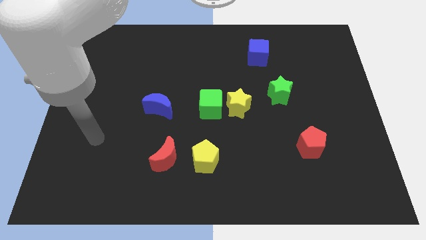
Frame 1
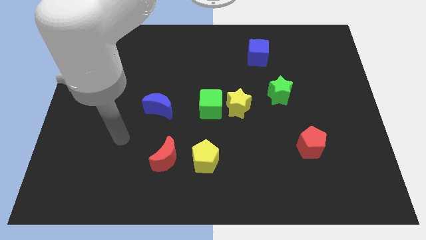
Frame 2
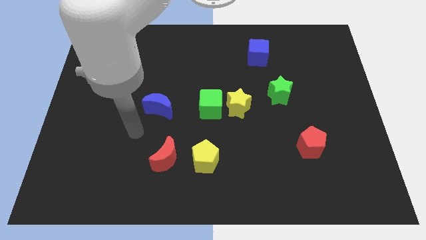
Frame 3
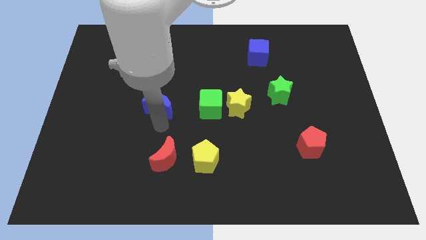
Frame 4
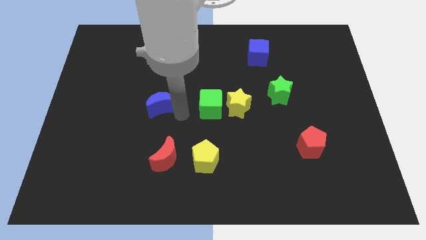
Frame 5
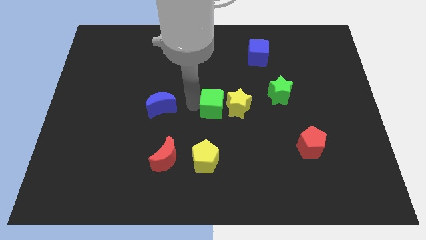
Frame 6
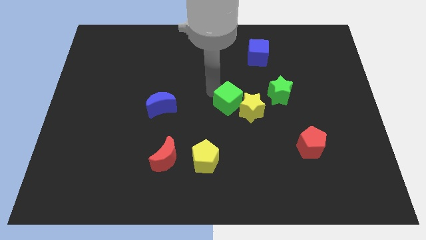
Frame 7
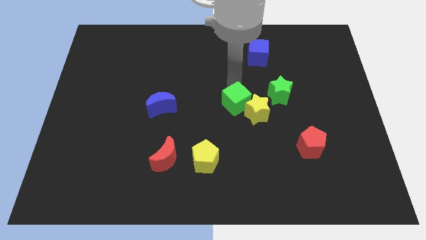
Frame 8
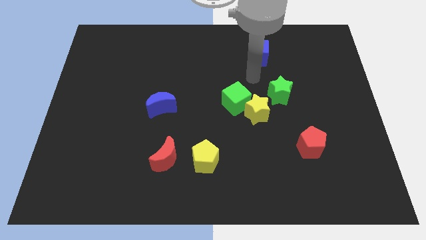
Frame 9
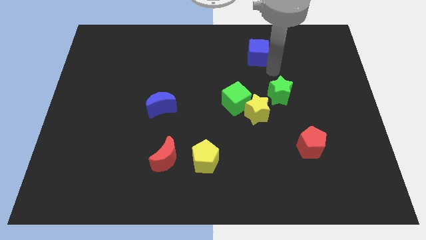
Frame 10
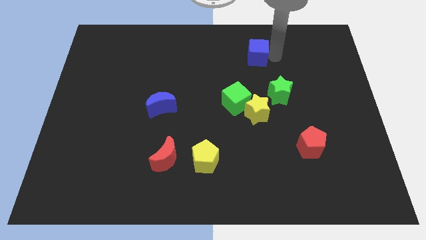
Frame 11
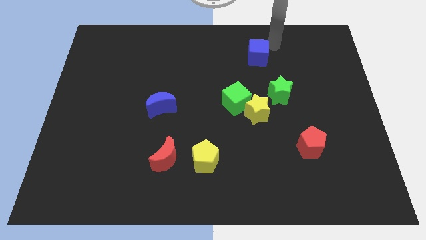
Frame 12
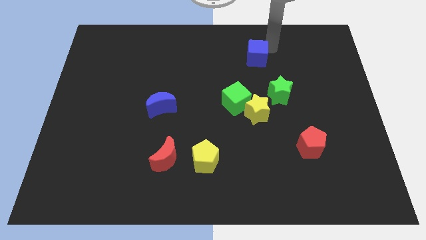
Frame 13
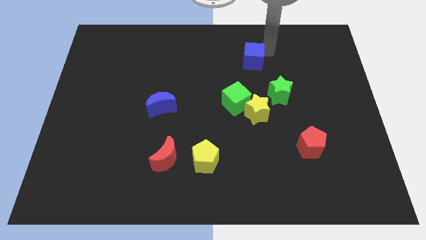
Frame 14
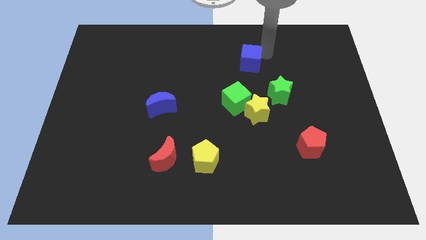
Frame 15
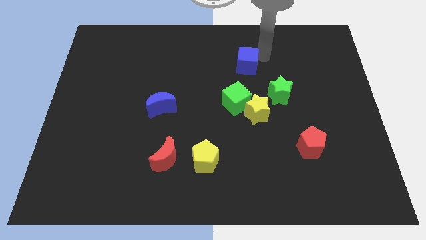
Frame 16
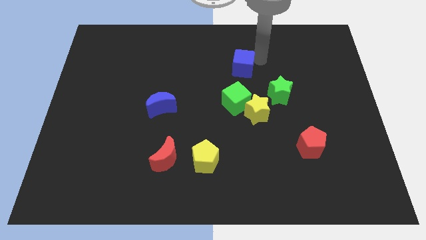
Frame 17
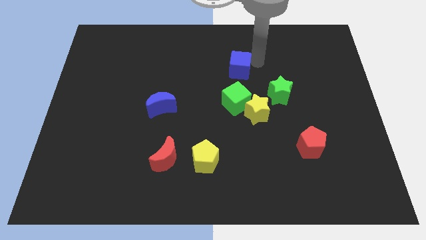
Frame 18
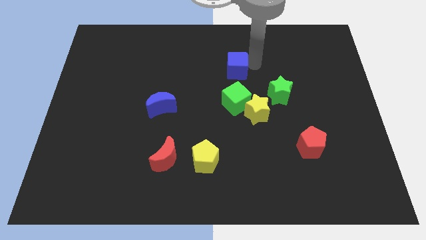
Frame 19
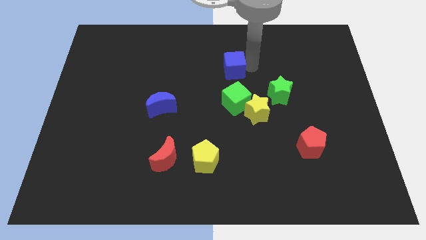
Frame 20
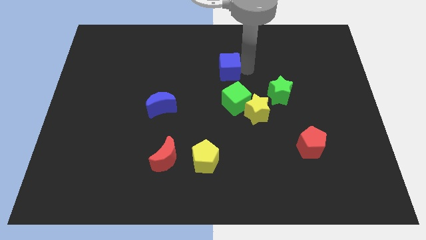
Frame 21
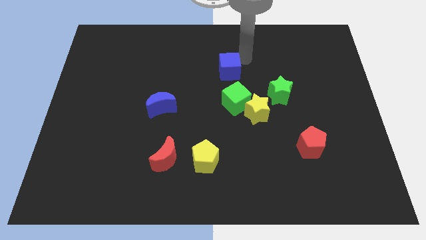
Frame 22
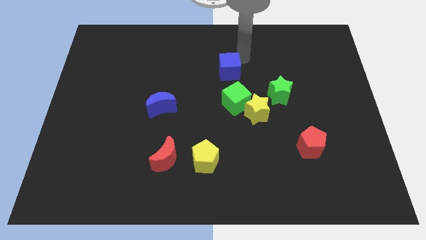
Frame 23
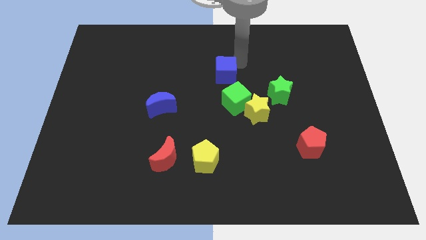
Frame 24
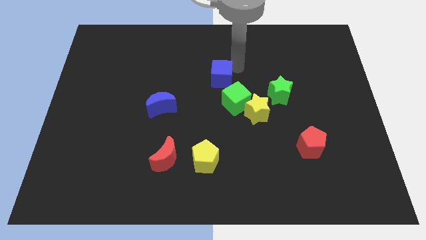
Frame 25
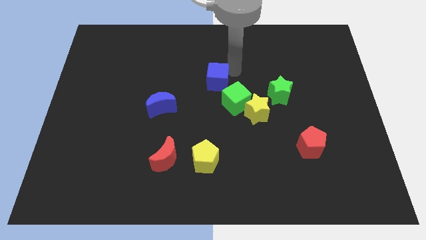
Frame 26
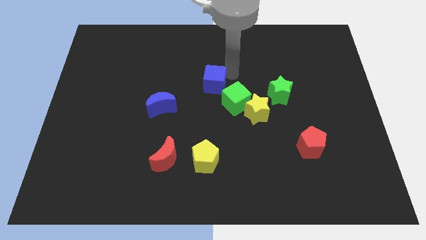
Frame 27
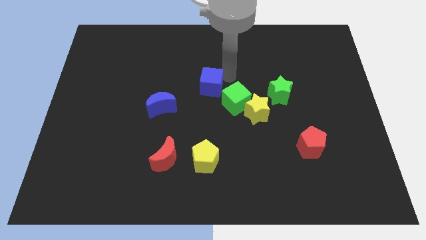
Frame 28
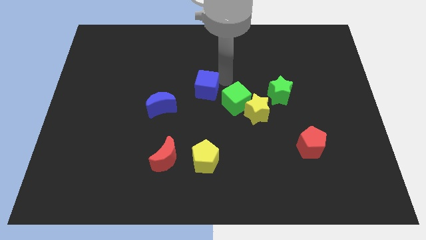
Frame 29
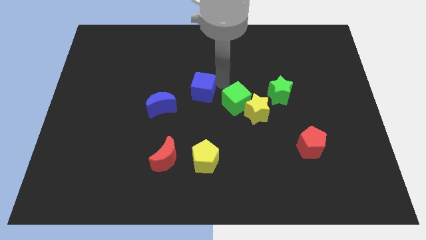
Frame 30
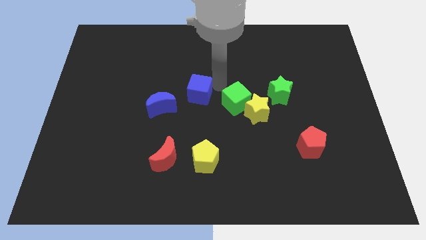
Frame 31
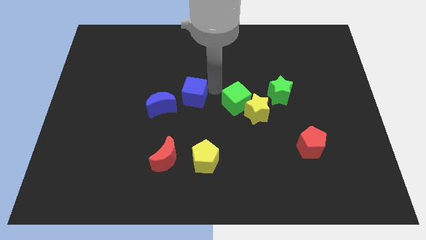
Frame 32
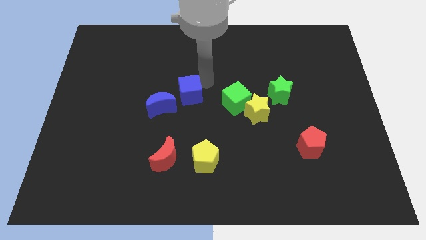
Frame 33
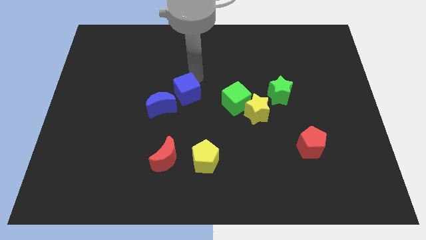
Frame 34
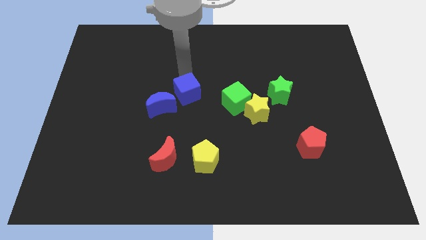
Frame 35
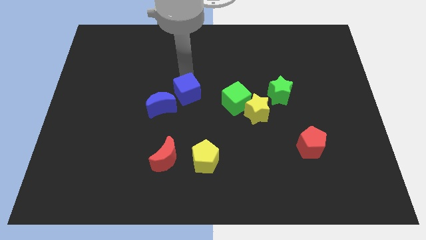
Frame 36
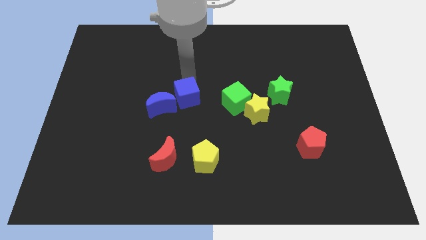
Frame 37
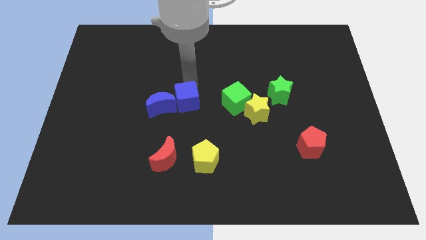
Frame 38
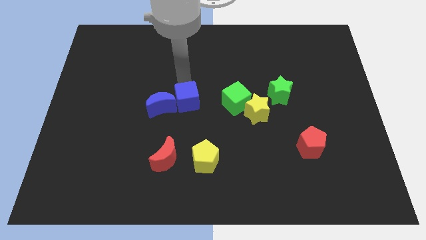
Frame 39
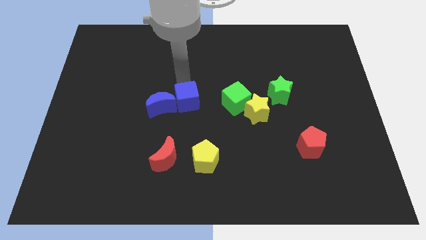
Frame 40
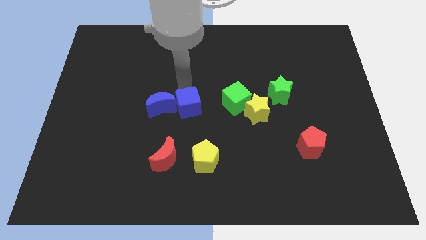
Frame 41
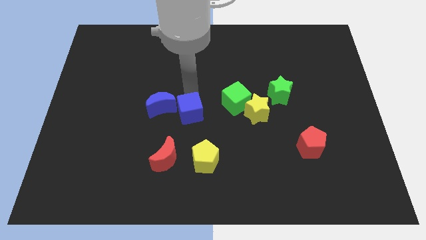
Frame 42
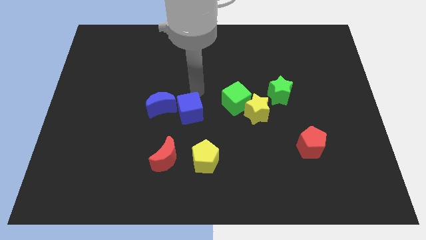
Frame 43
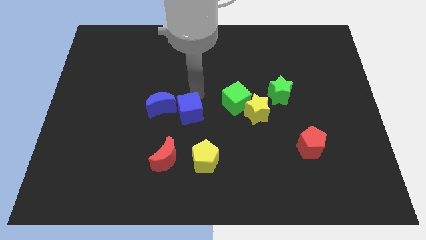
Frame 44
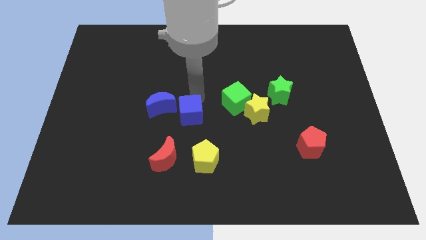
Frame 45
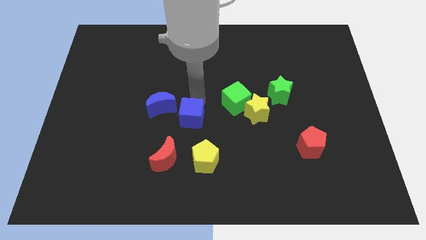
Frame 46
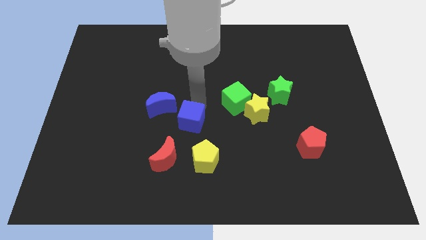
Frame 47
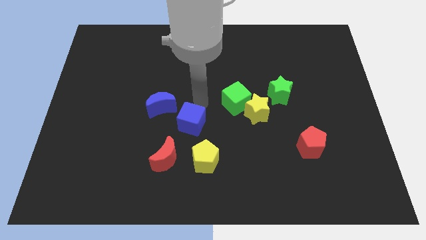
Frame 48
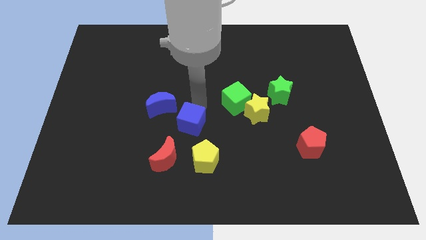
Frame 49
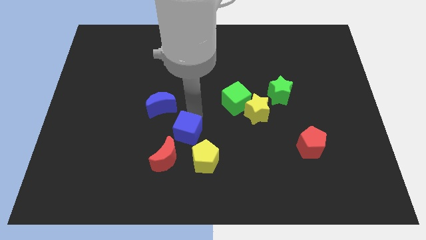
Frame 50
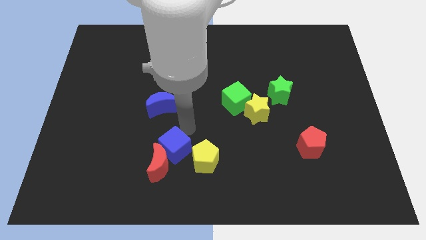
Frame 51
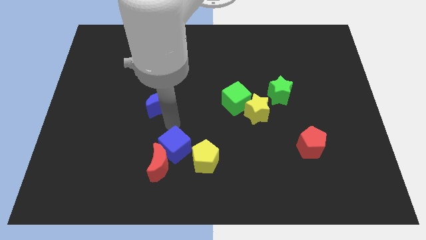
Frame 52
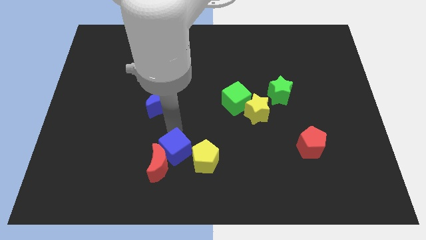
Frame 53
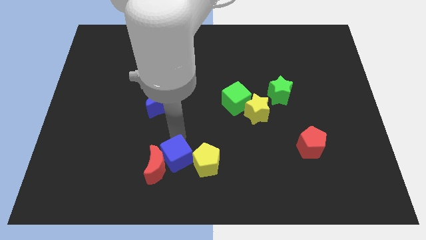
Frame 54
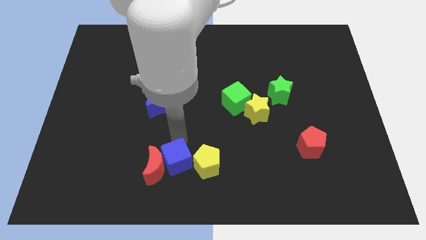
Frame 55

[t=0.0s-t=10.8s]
move the blue cube to the bottom right side of the red moon

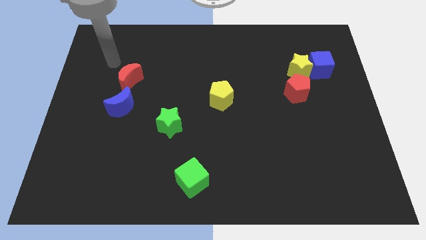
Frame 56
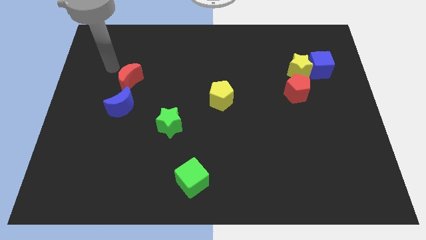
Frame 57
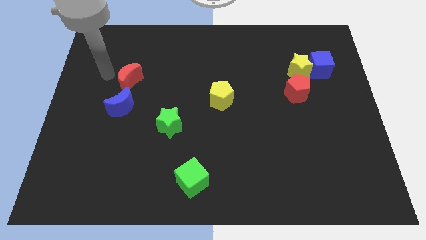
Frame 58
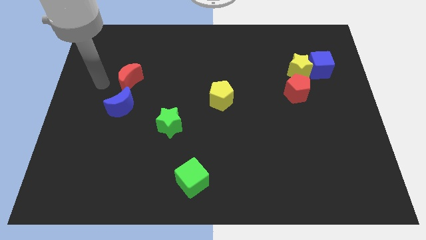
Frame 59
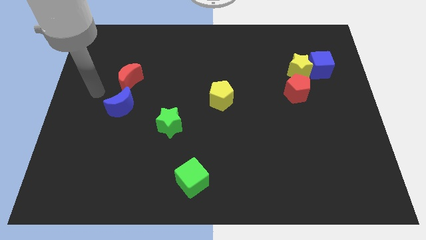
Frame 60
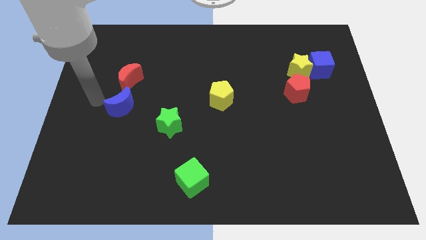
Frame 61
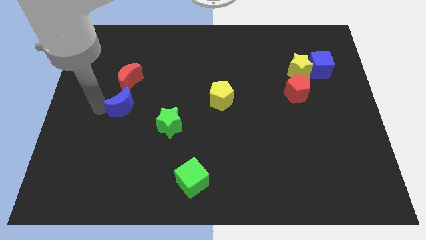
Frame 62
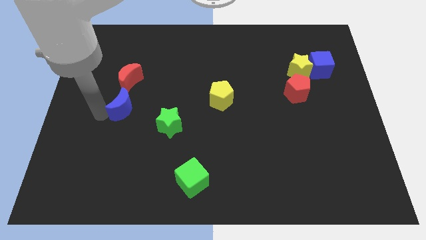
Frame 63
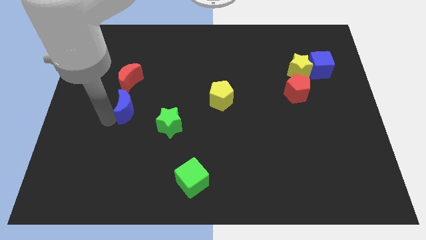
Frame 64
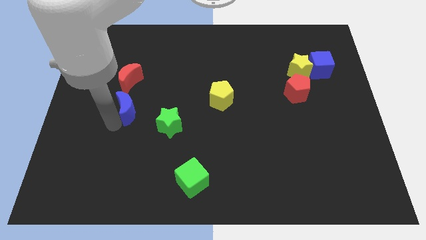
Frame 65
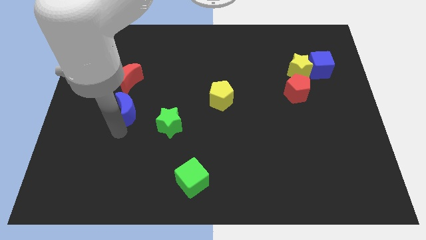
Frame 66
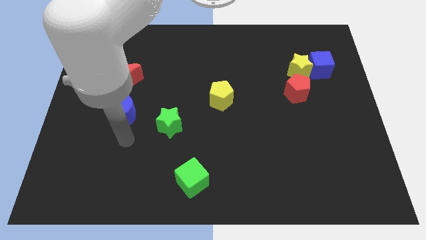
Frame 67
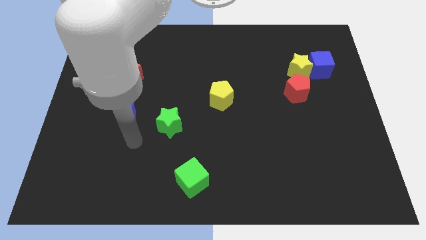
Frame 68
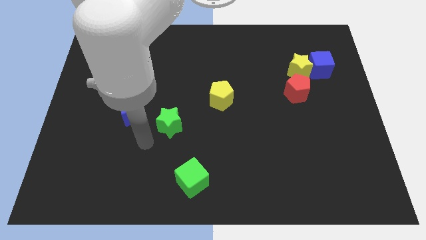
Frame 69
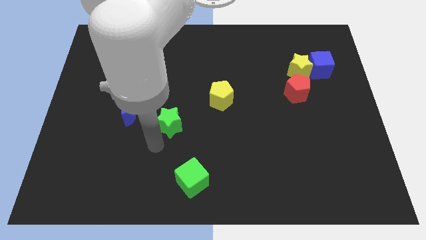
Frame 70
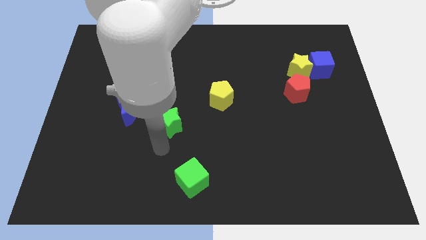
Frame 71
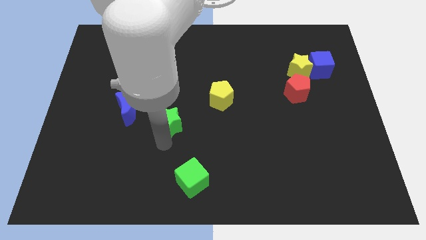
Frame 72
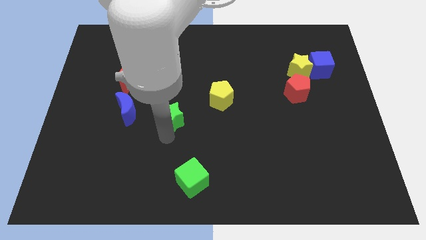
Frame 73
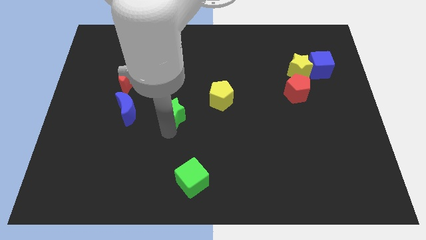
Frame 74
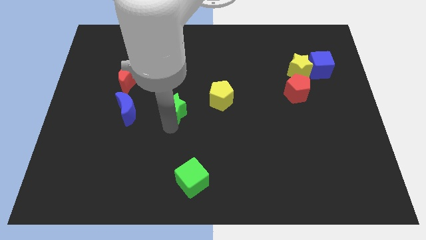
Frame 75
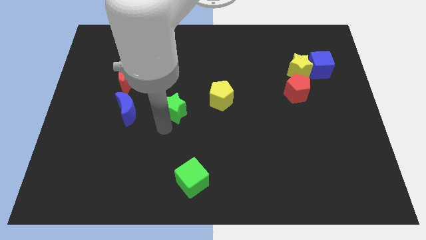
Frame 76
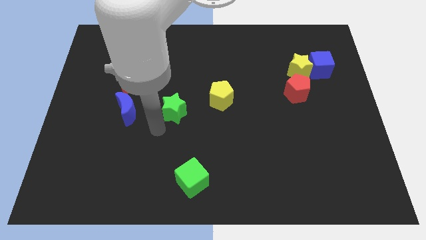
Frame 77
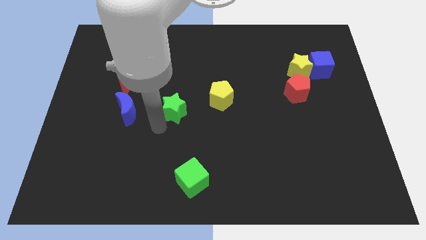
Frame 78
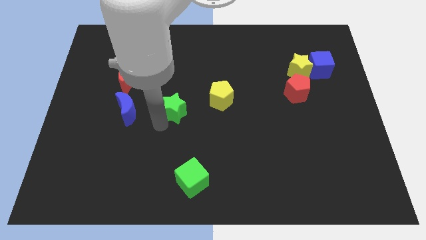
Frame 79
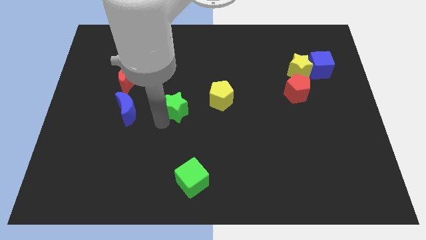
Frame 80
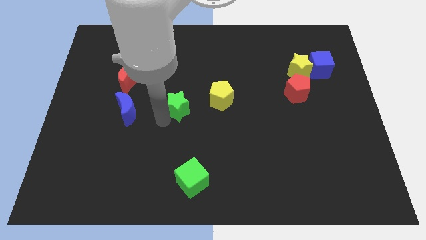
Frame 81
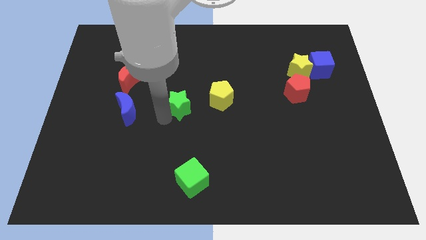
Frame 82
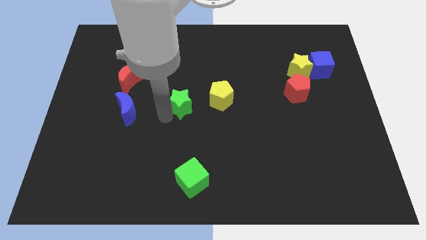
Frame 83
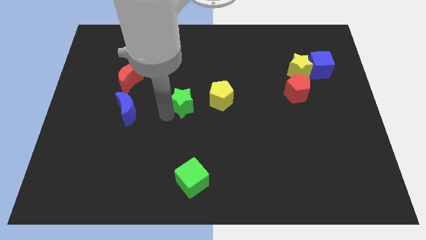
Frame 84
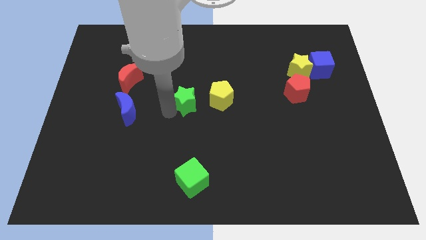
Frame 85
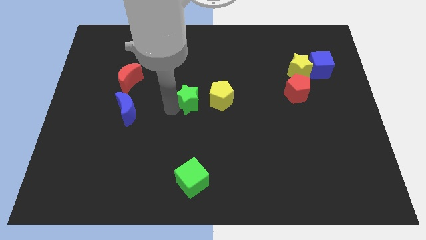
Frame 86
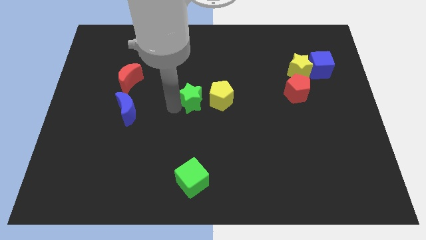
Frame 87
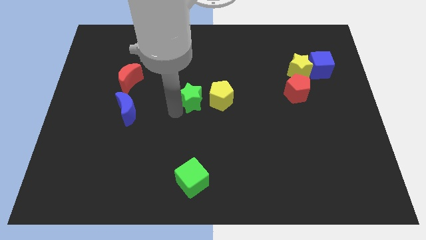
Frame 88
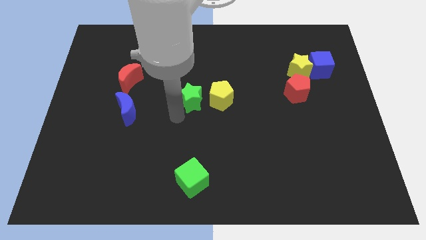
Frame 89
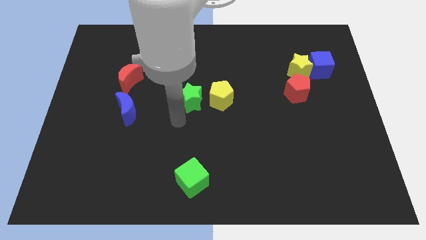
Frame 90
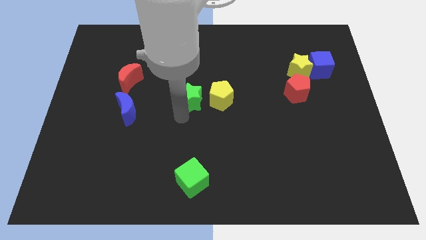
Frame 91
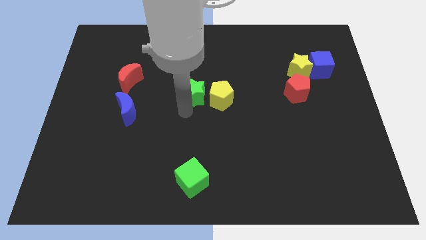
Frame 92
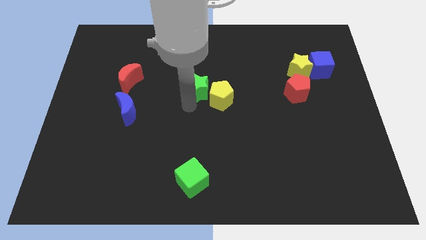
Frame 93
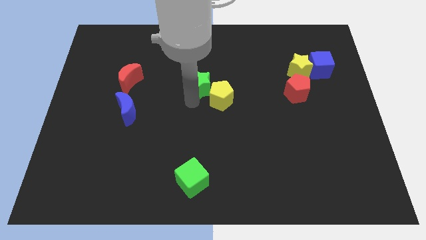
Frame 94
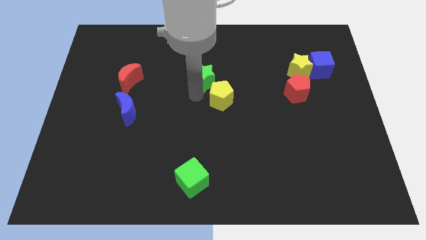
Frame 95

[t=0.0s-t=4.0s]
slide the green star to the top side of the yellow pentagon
